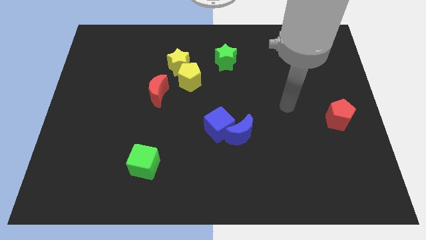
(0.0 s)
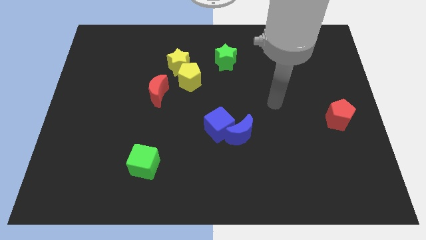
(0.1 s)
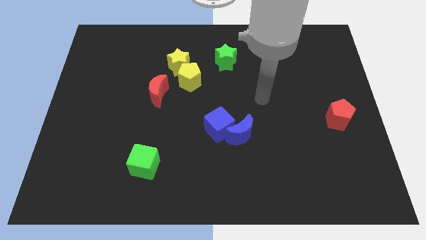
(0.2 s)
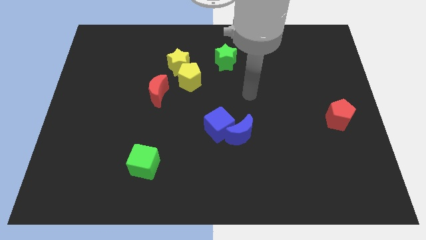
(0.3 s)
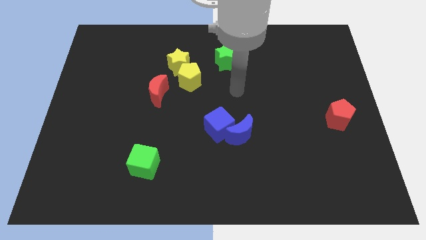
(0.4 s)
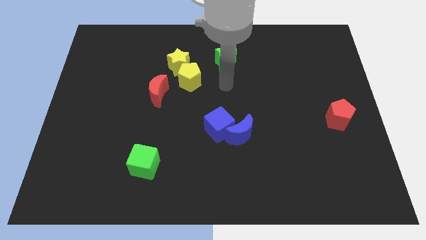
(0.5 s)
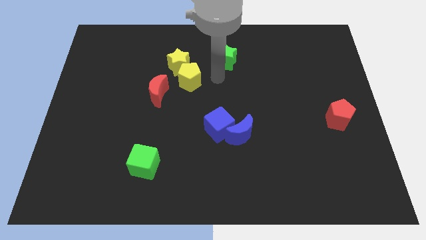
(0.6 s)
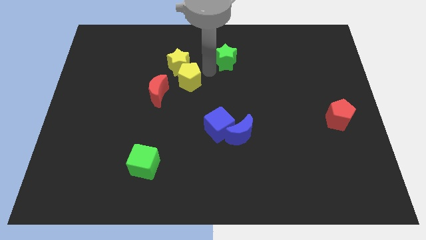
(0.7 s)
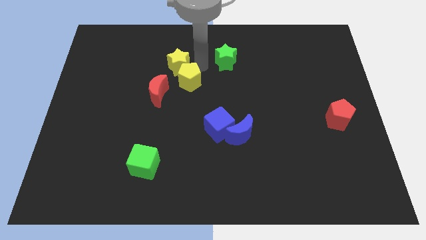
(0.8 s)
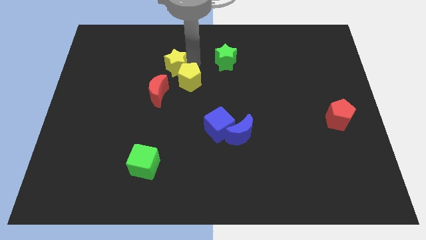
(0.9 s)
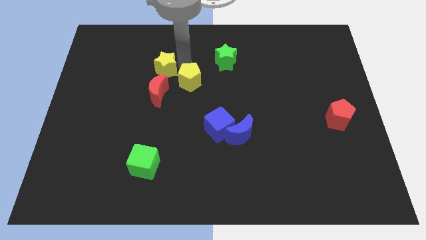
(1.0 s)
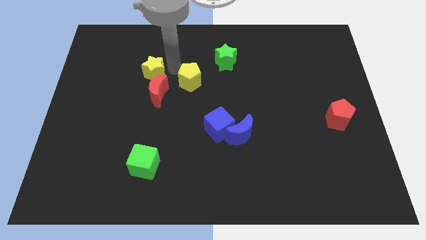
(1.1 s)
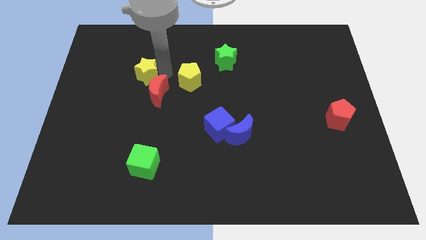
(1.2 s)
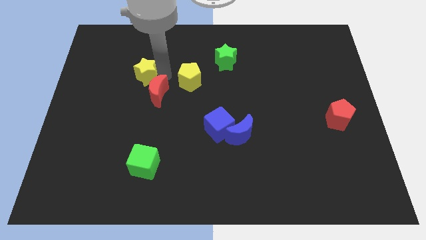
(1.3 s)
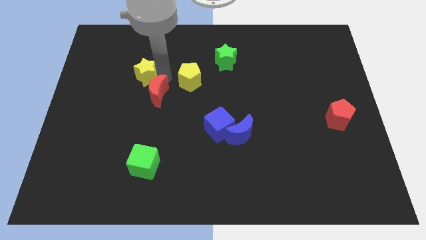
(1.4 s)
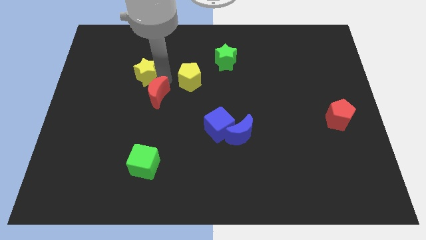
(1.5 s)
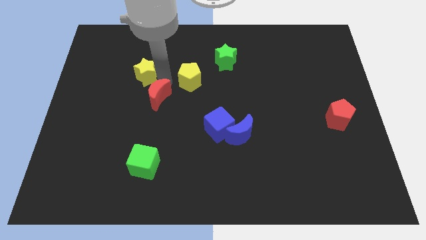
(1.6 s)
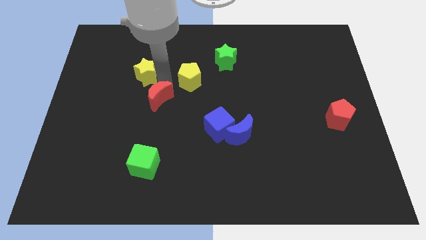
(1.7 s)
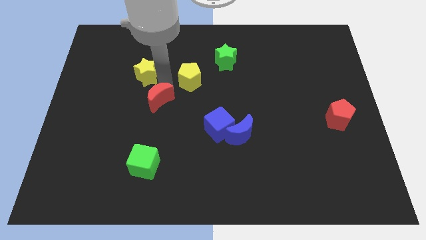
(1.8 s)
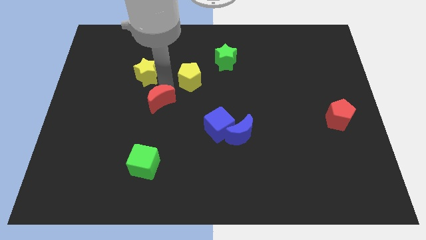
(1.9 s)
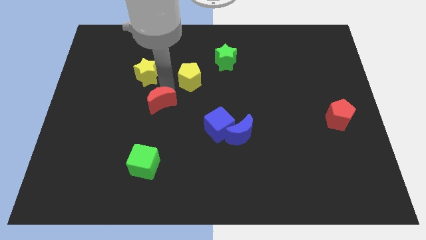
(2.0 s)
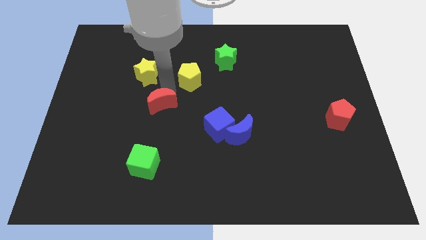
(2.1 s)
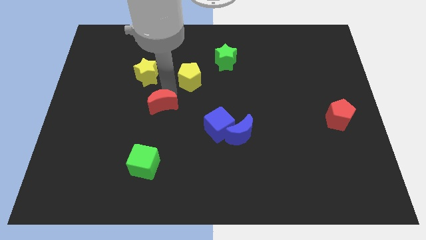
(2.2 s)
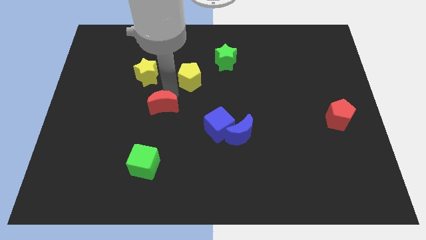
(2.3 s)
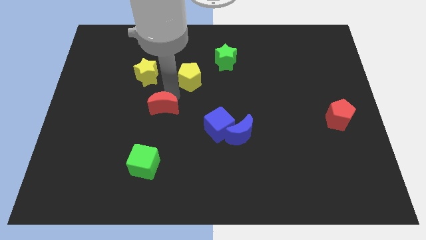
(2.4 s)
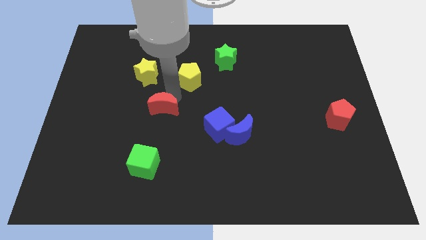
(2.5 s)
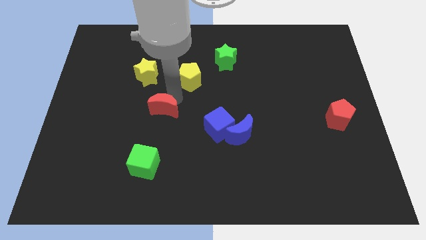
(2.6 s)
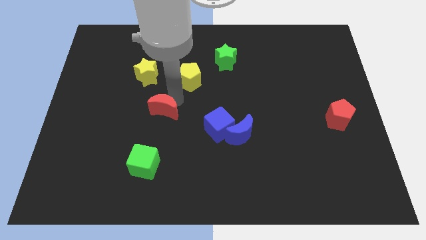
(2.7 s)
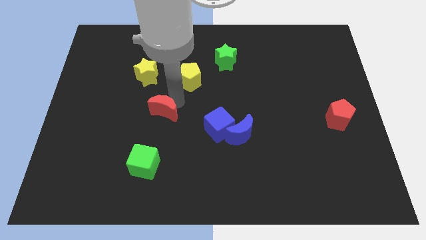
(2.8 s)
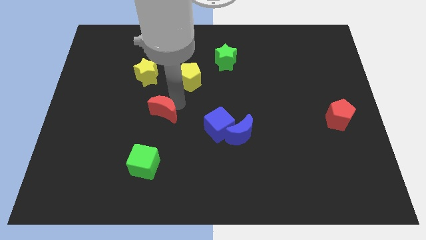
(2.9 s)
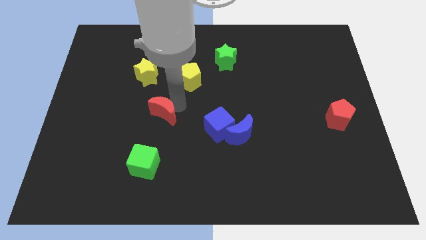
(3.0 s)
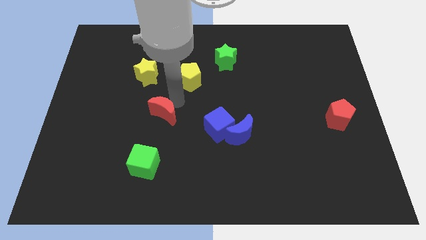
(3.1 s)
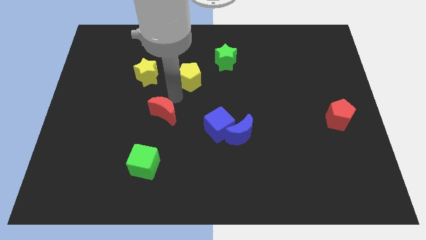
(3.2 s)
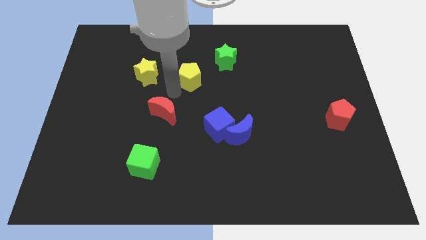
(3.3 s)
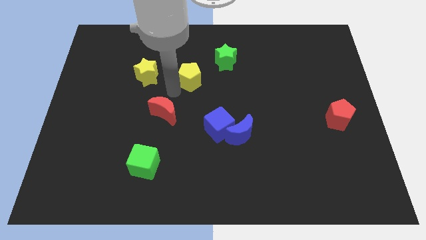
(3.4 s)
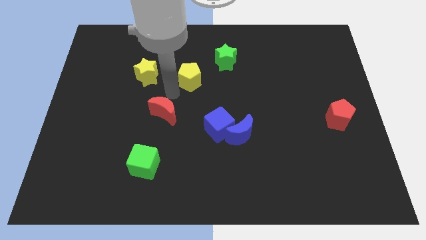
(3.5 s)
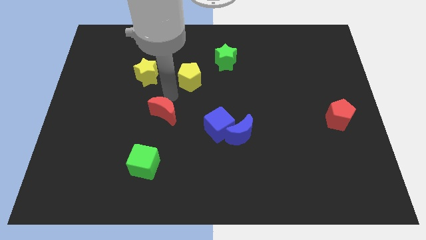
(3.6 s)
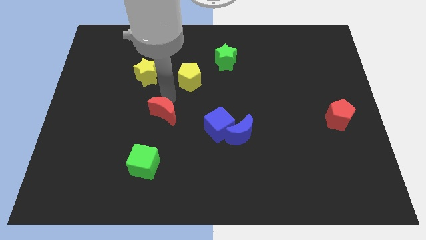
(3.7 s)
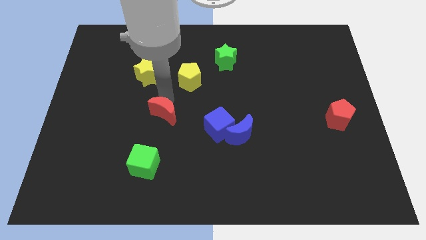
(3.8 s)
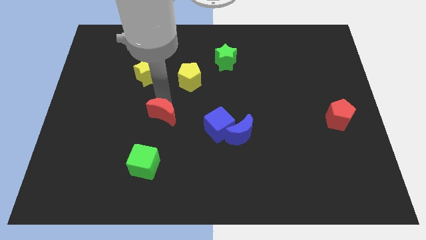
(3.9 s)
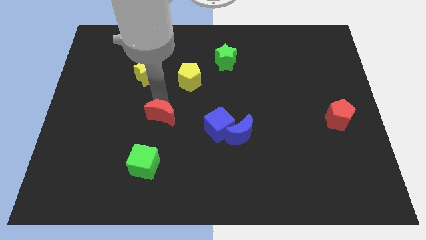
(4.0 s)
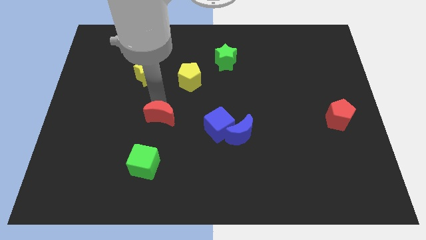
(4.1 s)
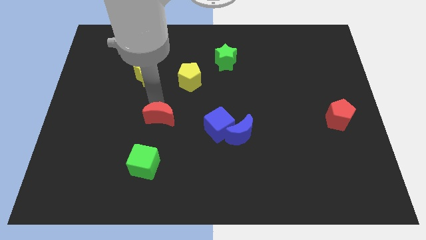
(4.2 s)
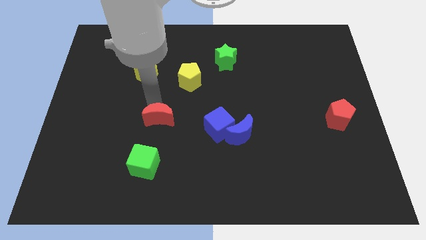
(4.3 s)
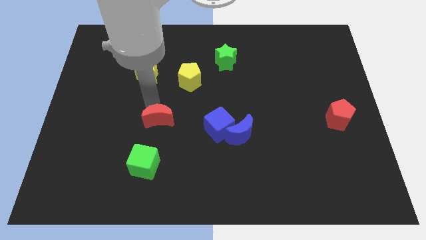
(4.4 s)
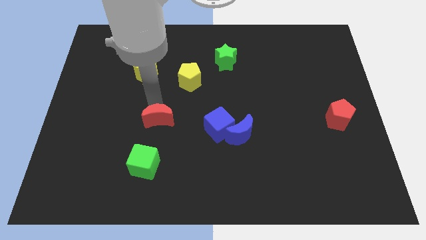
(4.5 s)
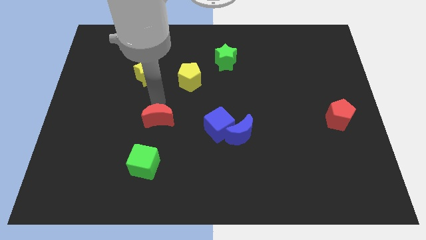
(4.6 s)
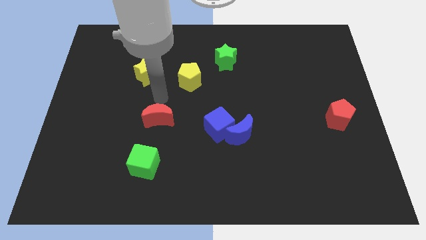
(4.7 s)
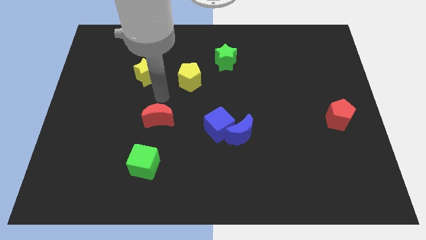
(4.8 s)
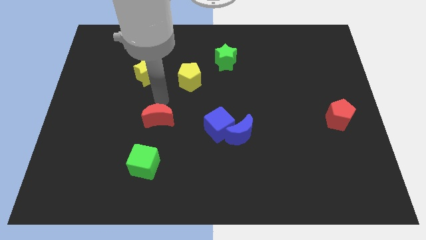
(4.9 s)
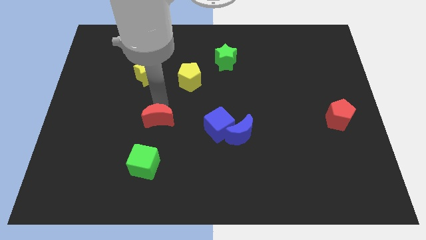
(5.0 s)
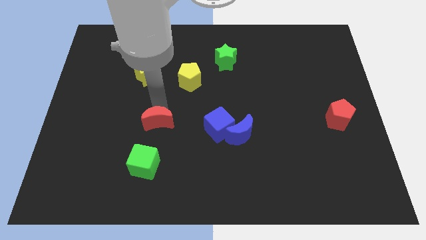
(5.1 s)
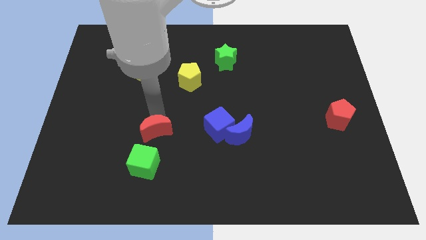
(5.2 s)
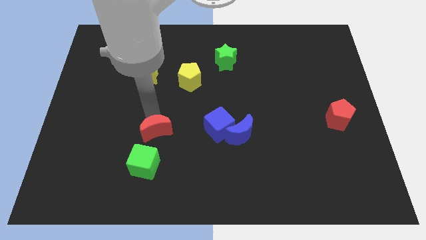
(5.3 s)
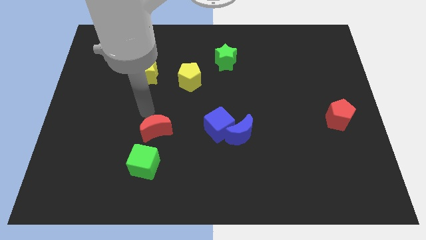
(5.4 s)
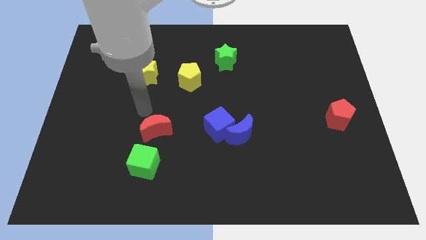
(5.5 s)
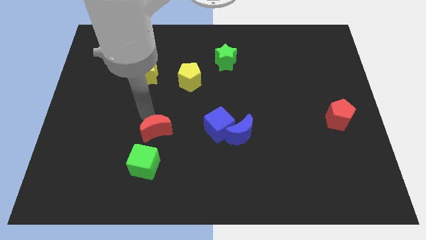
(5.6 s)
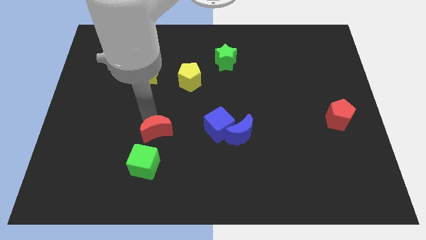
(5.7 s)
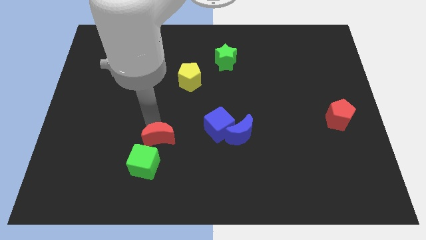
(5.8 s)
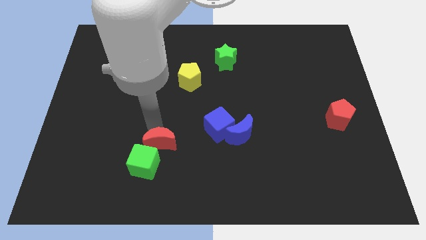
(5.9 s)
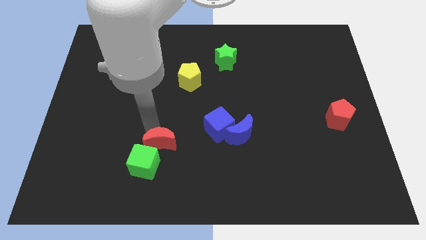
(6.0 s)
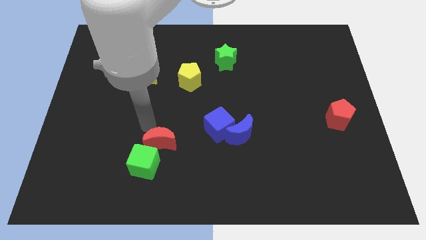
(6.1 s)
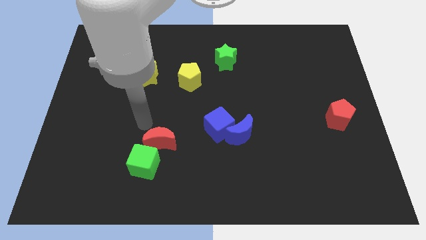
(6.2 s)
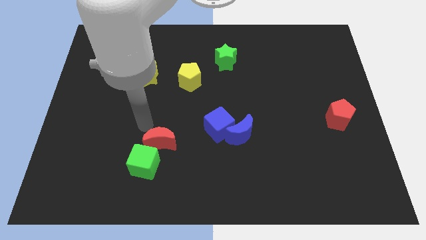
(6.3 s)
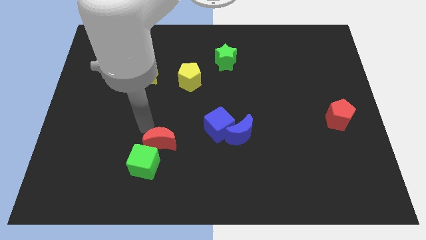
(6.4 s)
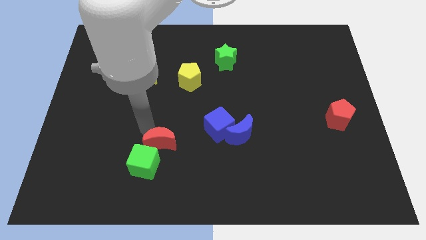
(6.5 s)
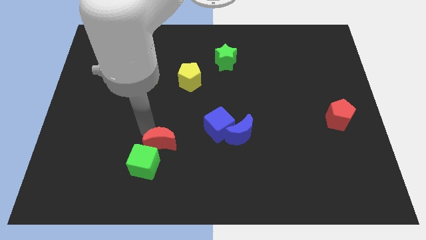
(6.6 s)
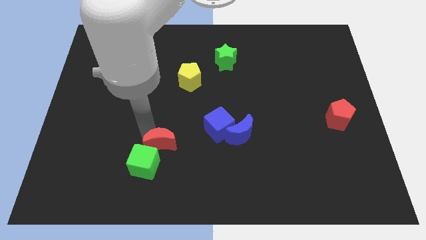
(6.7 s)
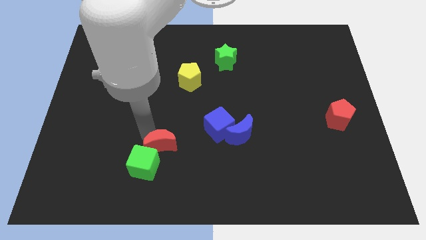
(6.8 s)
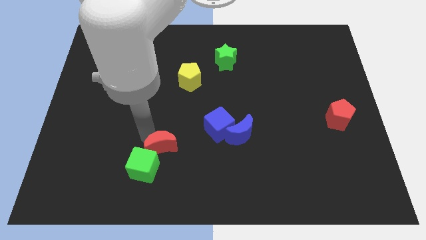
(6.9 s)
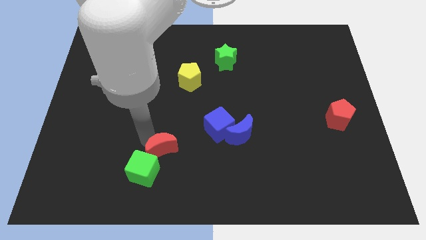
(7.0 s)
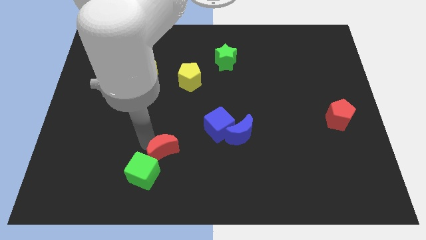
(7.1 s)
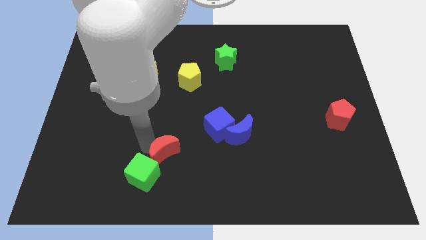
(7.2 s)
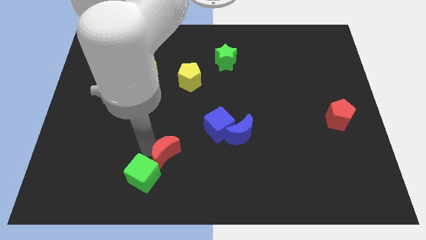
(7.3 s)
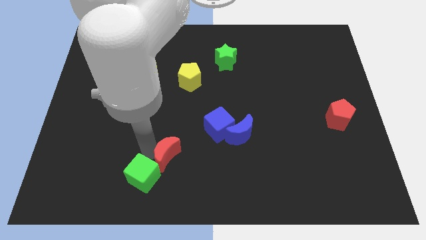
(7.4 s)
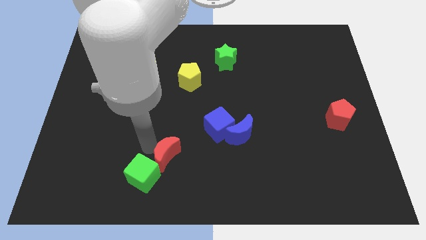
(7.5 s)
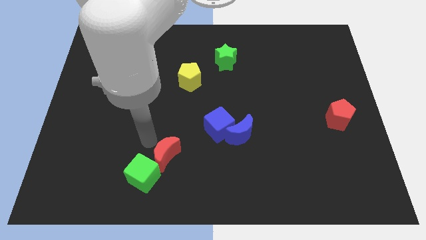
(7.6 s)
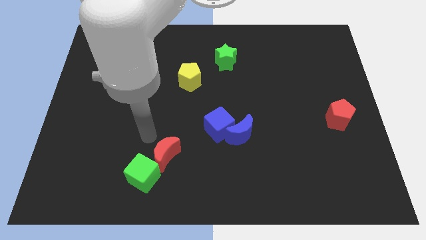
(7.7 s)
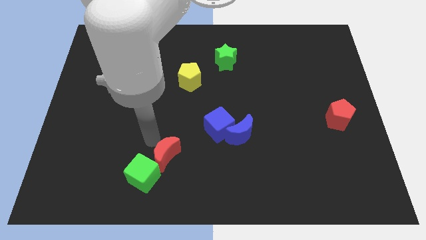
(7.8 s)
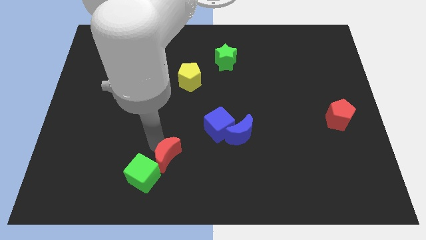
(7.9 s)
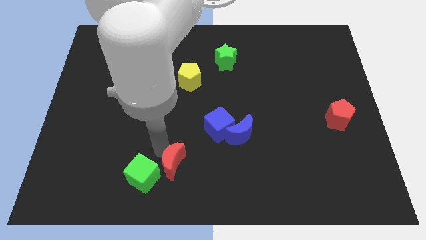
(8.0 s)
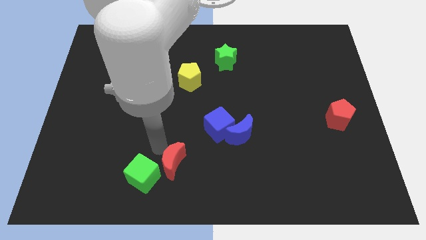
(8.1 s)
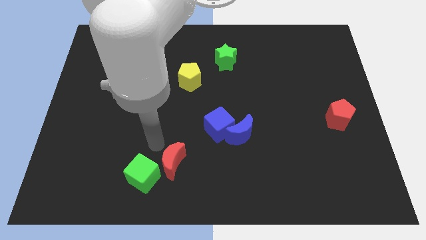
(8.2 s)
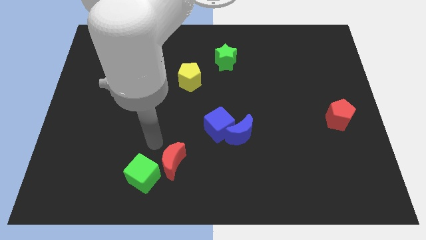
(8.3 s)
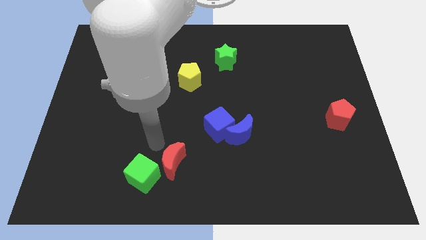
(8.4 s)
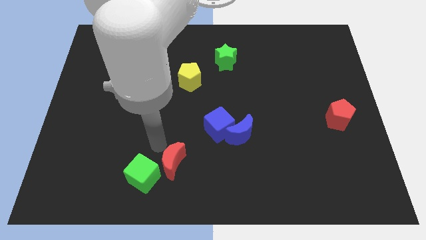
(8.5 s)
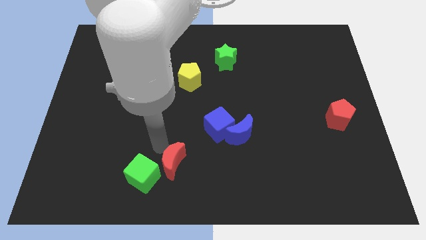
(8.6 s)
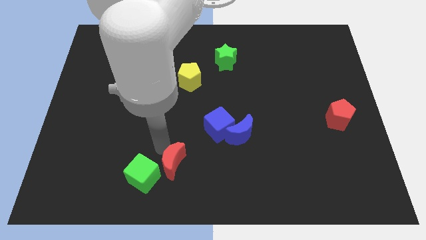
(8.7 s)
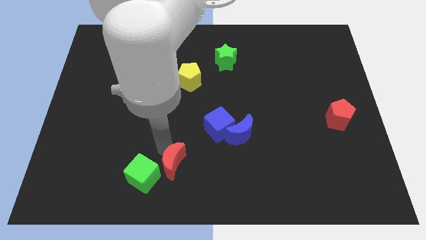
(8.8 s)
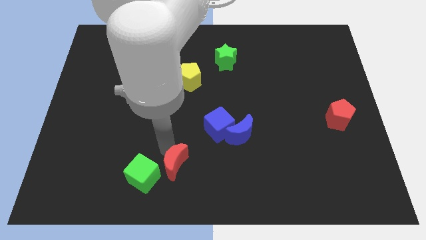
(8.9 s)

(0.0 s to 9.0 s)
push the red moon to the bottom
